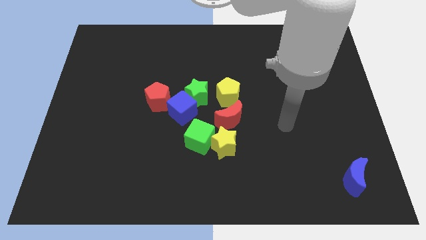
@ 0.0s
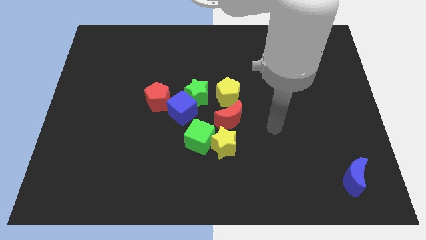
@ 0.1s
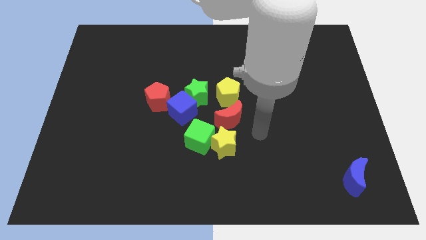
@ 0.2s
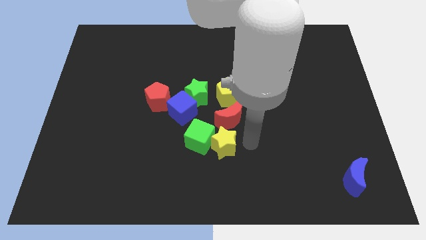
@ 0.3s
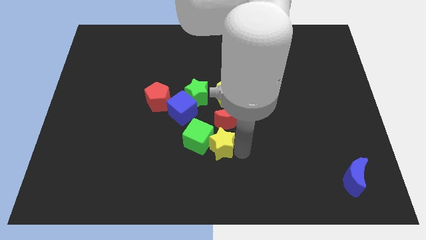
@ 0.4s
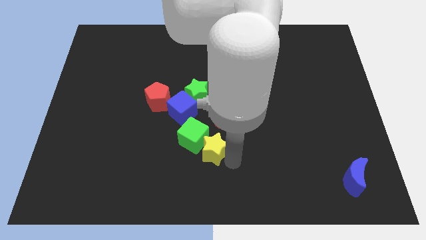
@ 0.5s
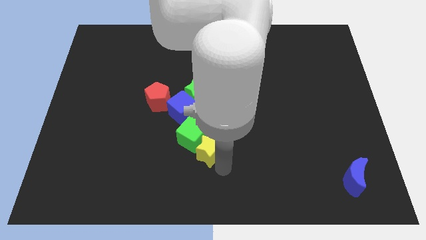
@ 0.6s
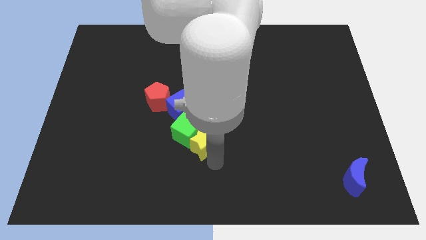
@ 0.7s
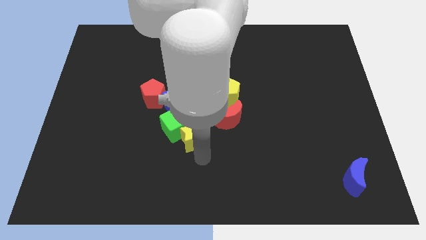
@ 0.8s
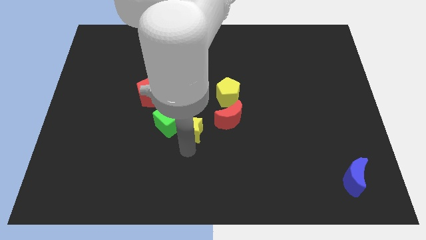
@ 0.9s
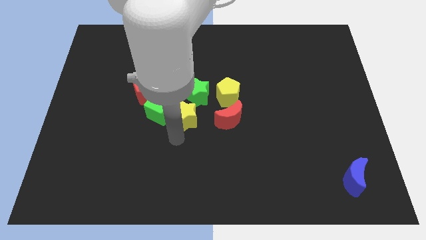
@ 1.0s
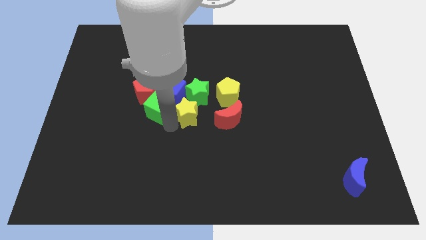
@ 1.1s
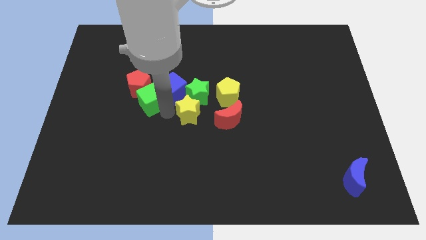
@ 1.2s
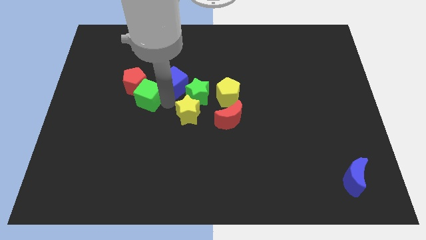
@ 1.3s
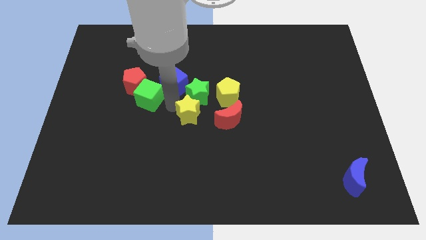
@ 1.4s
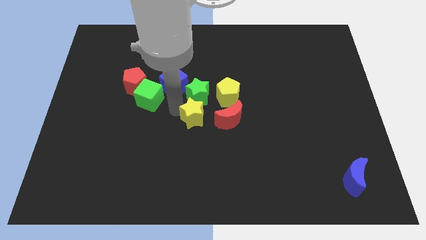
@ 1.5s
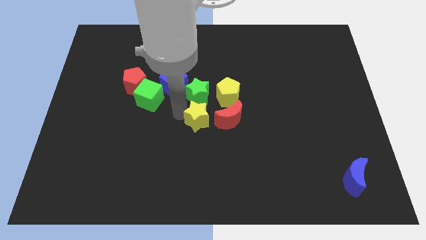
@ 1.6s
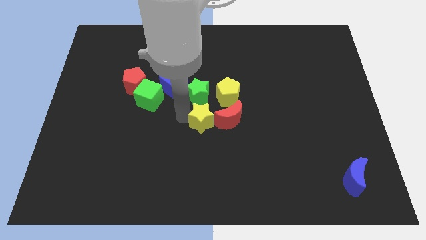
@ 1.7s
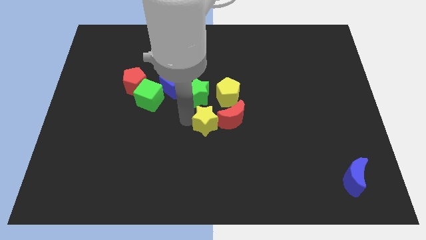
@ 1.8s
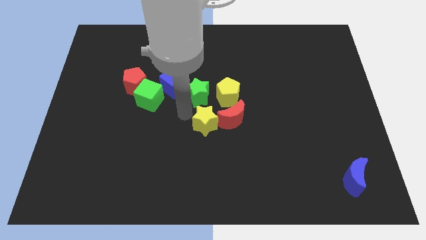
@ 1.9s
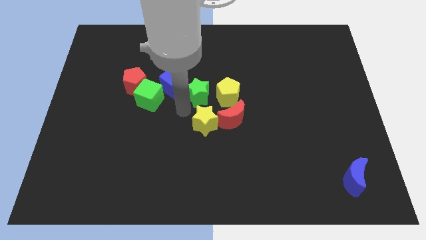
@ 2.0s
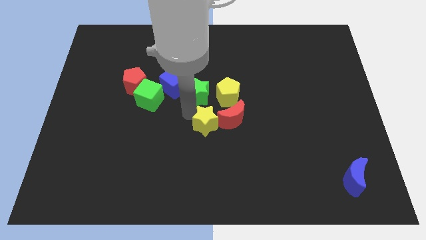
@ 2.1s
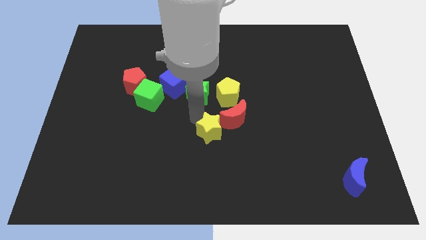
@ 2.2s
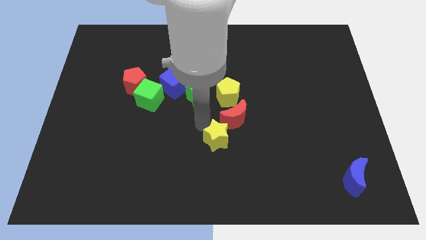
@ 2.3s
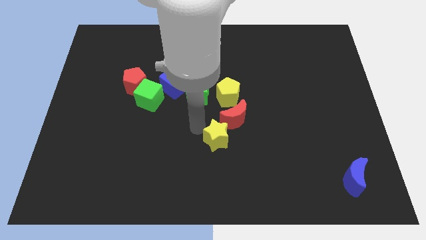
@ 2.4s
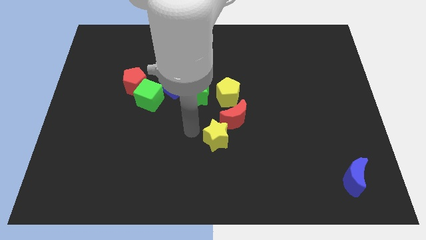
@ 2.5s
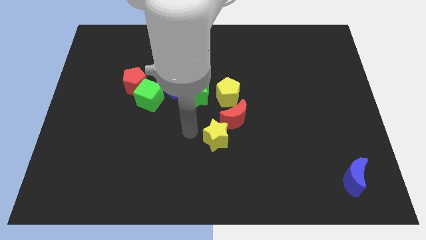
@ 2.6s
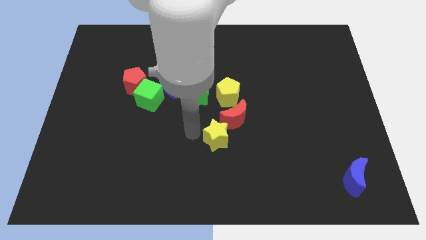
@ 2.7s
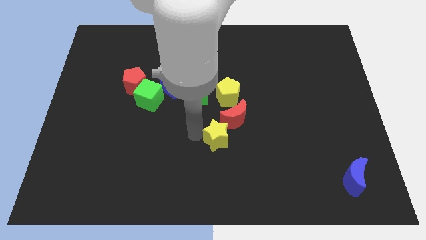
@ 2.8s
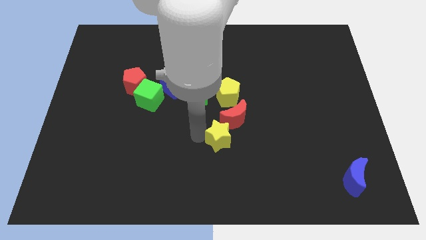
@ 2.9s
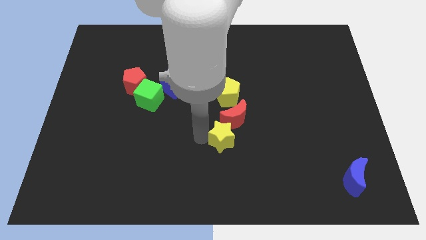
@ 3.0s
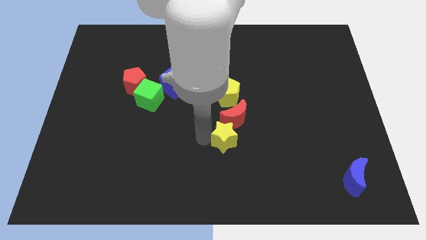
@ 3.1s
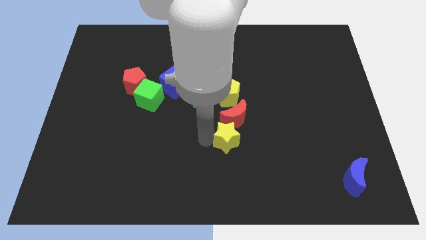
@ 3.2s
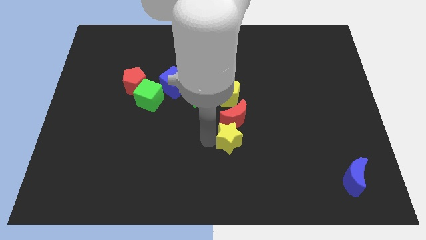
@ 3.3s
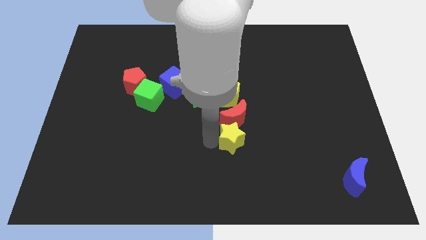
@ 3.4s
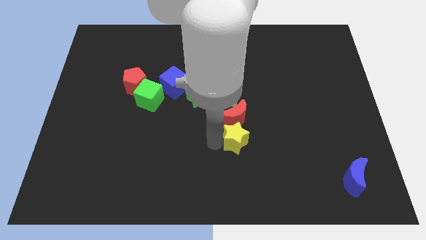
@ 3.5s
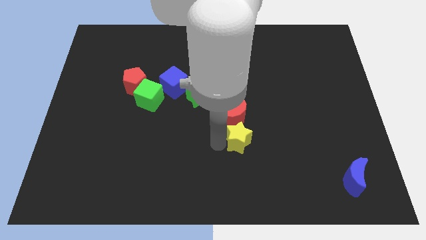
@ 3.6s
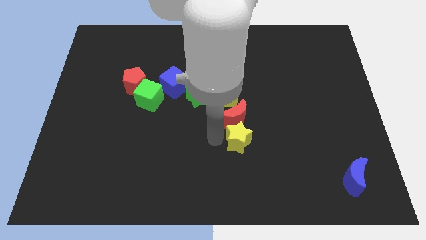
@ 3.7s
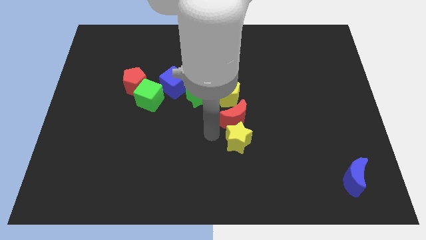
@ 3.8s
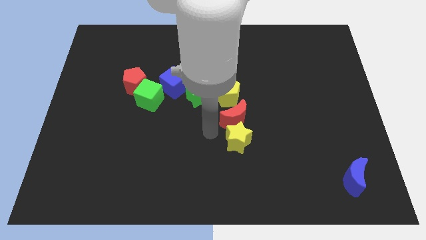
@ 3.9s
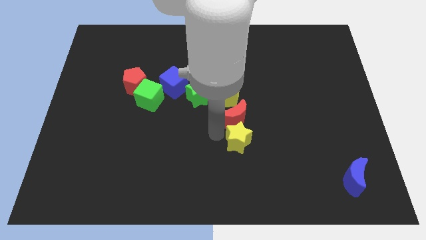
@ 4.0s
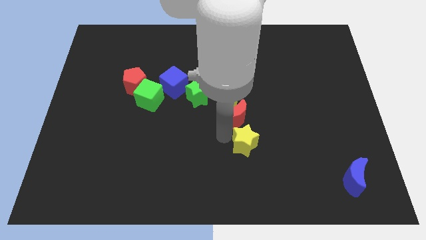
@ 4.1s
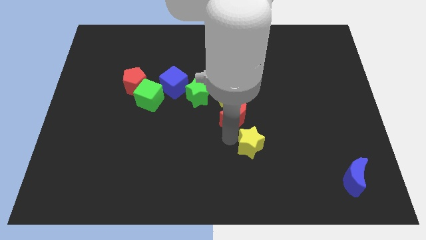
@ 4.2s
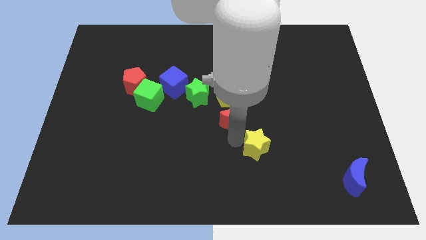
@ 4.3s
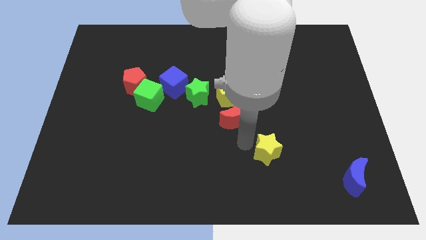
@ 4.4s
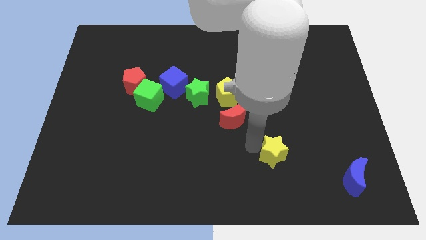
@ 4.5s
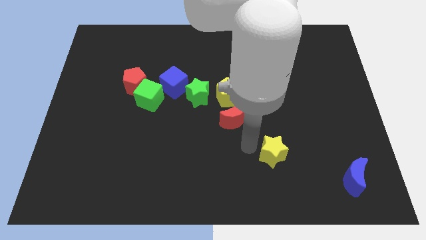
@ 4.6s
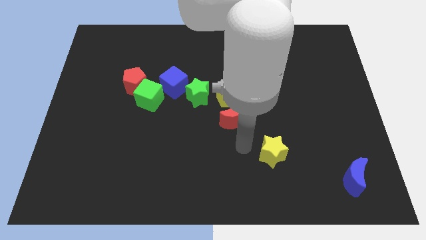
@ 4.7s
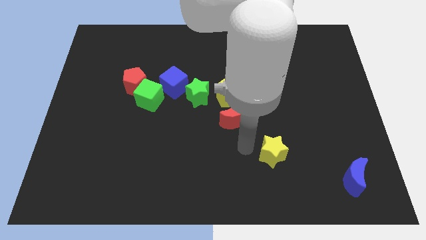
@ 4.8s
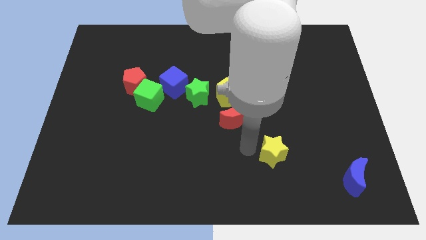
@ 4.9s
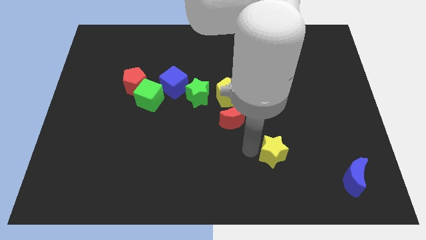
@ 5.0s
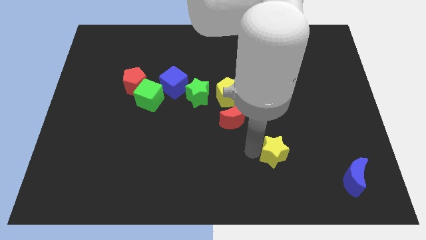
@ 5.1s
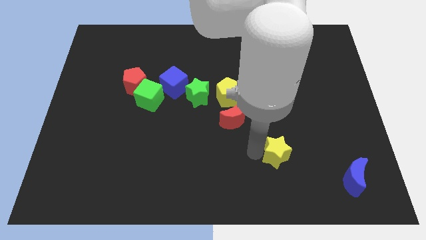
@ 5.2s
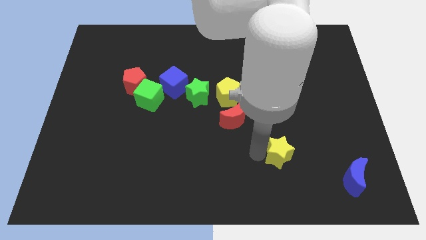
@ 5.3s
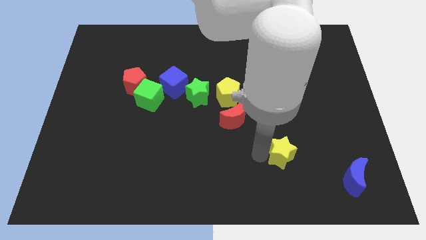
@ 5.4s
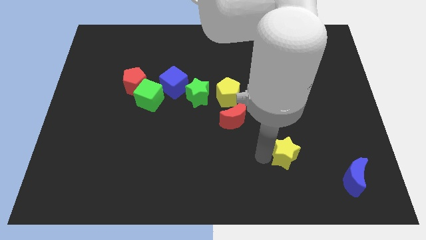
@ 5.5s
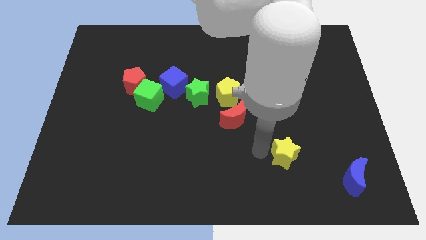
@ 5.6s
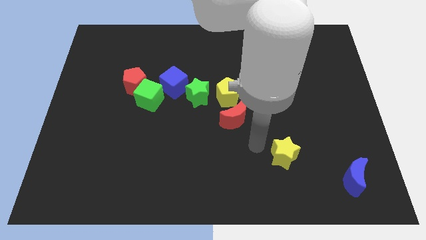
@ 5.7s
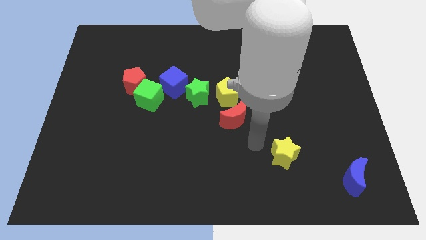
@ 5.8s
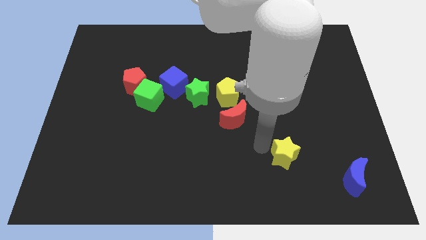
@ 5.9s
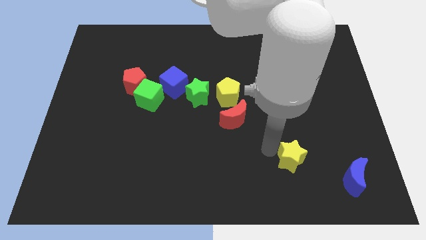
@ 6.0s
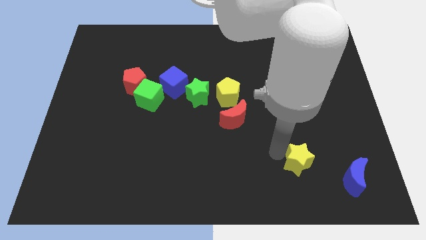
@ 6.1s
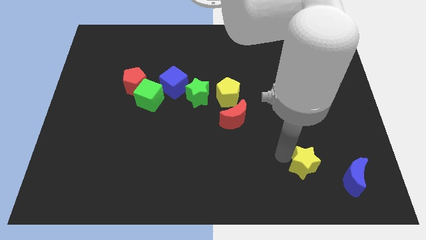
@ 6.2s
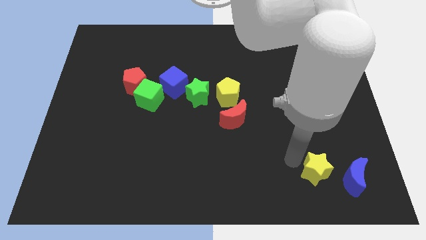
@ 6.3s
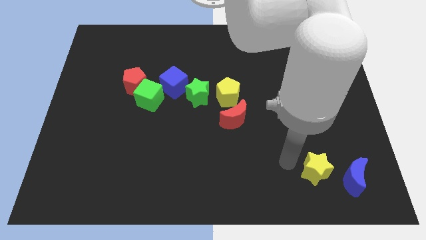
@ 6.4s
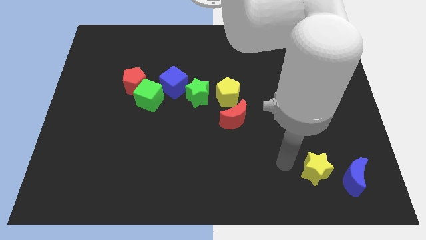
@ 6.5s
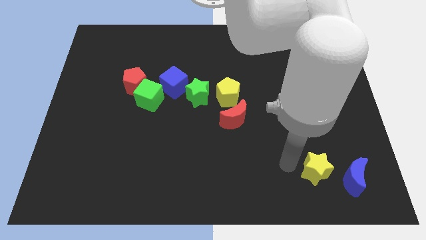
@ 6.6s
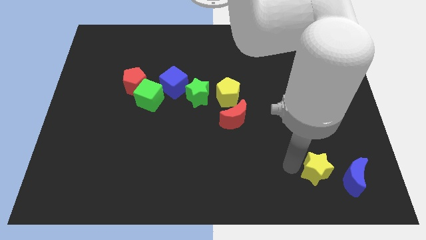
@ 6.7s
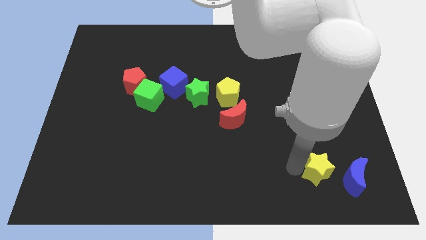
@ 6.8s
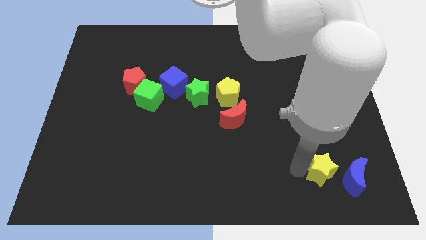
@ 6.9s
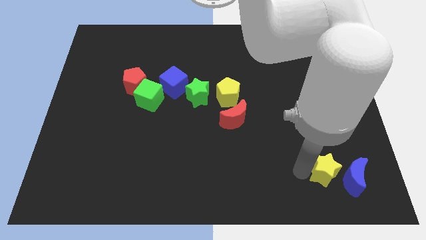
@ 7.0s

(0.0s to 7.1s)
move the yellow star towards the blue moon
